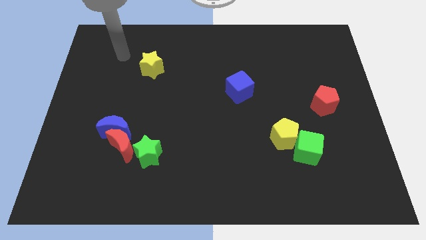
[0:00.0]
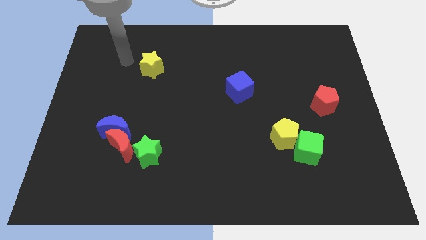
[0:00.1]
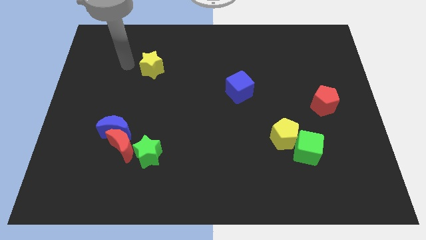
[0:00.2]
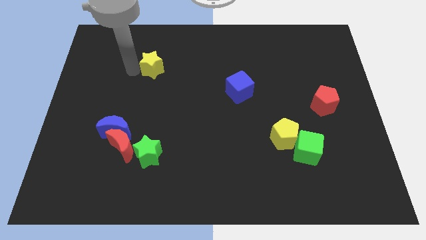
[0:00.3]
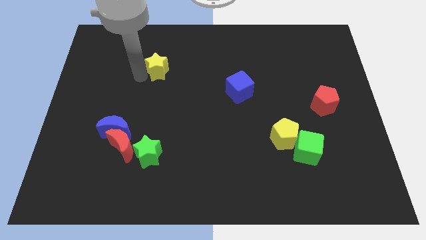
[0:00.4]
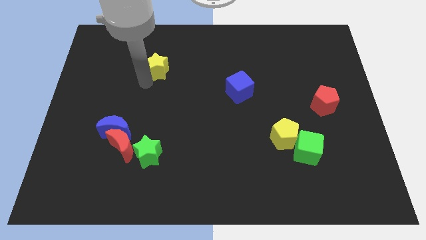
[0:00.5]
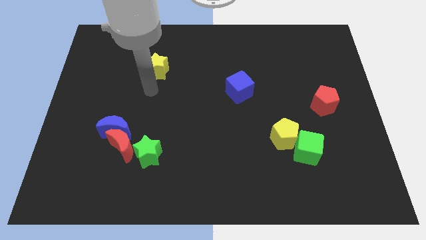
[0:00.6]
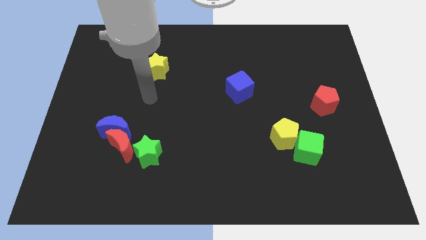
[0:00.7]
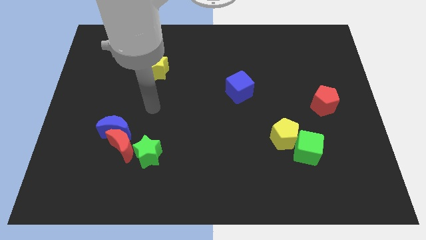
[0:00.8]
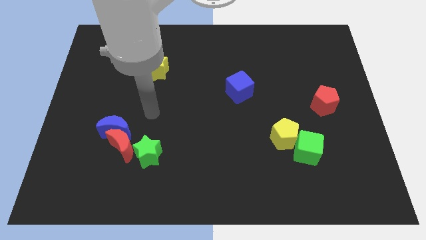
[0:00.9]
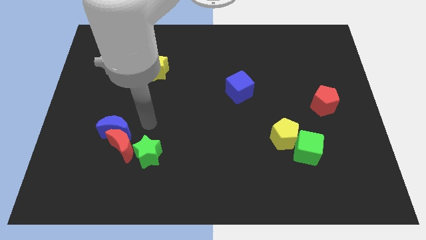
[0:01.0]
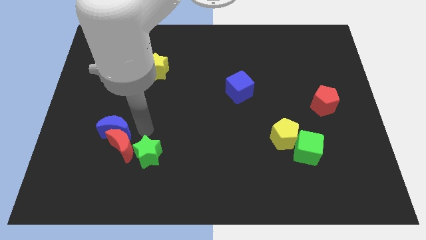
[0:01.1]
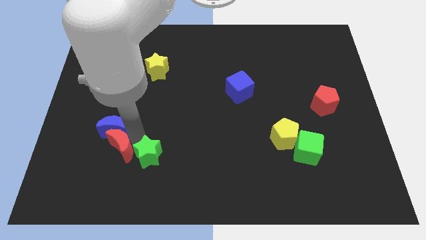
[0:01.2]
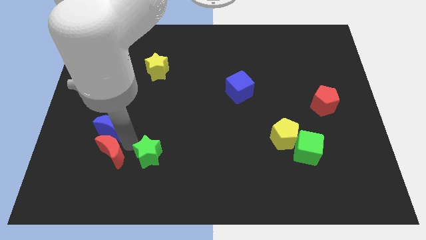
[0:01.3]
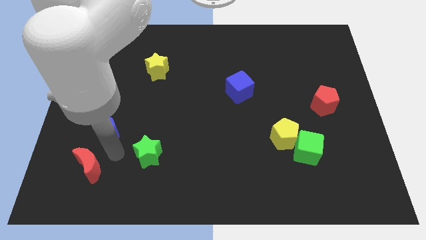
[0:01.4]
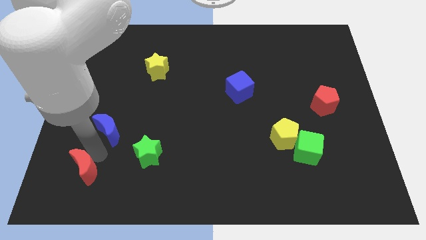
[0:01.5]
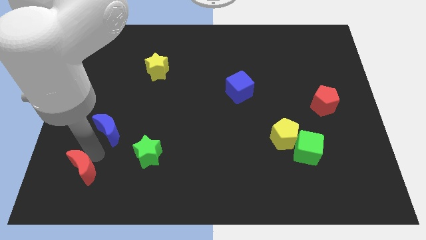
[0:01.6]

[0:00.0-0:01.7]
separate the blue moon from the red moon

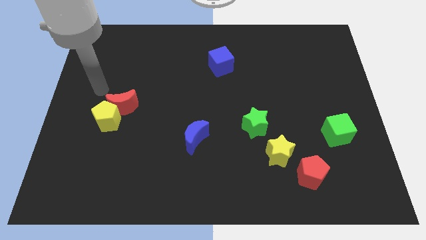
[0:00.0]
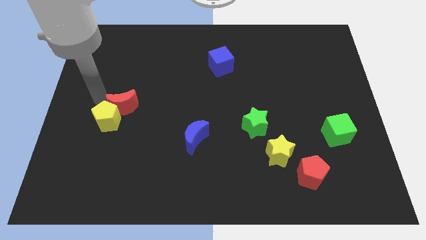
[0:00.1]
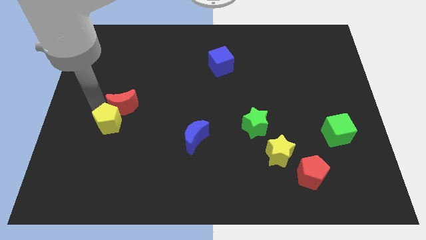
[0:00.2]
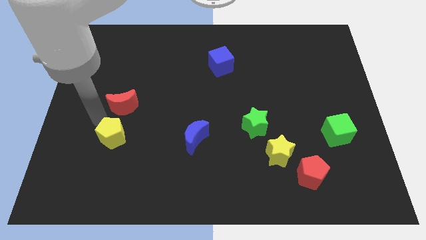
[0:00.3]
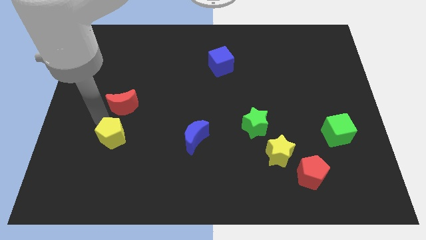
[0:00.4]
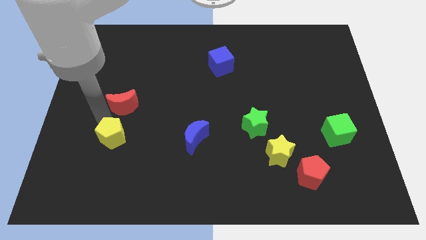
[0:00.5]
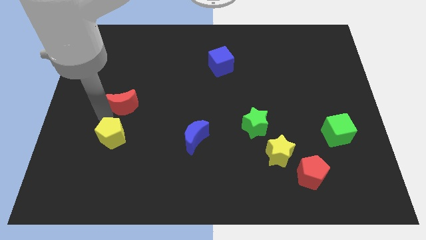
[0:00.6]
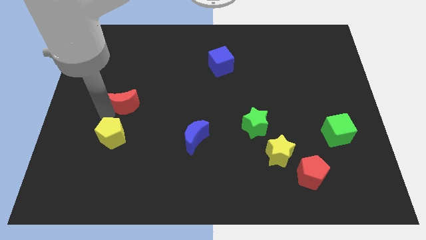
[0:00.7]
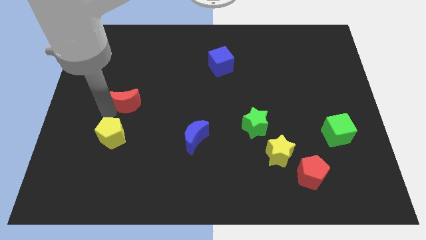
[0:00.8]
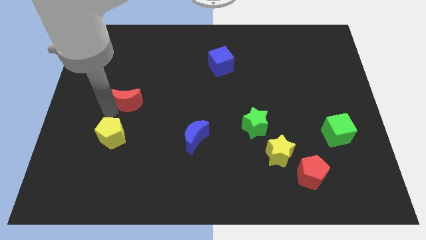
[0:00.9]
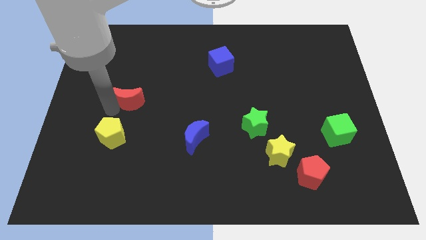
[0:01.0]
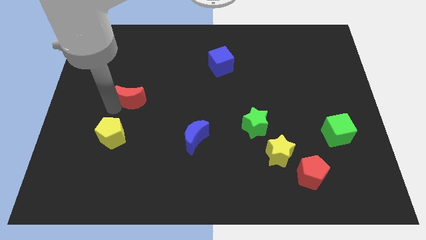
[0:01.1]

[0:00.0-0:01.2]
move the red moon away from the yellow pentagon

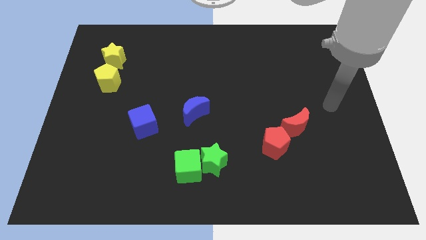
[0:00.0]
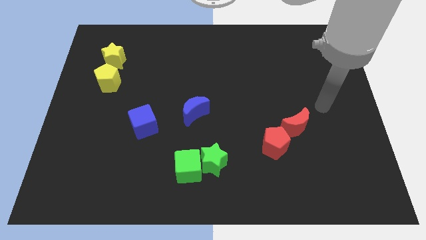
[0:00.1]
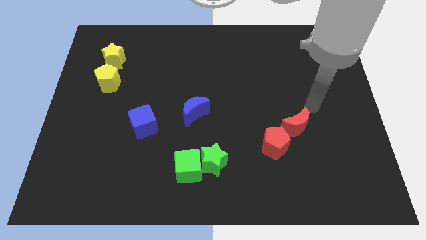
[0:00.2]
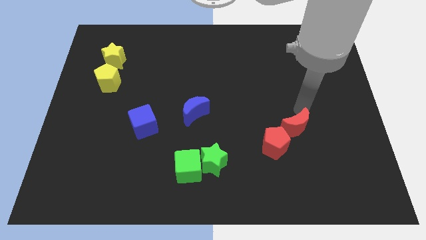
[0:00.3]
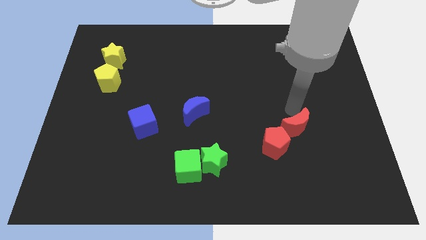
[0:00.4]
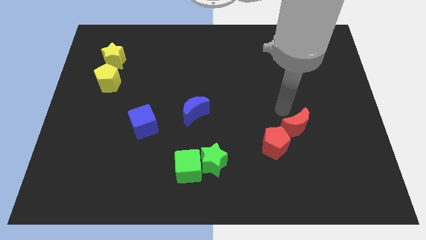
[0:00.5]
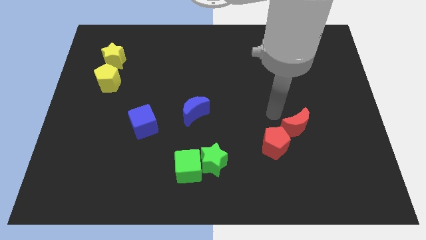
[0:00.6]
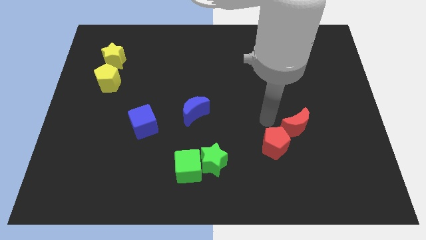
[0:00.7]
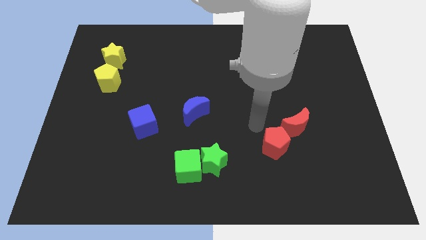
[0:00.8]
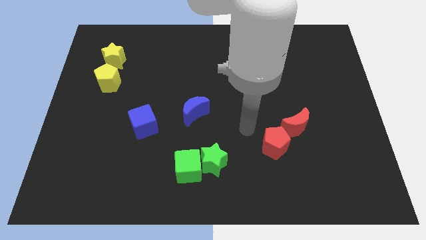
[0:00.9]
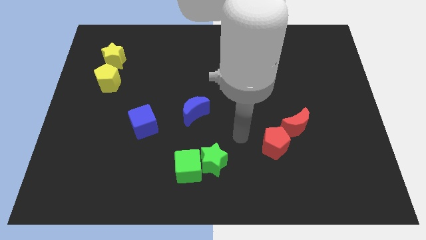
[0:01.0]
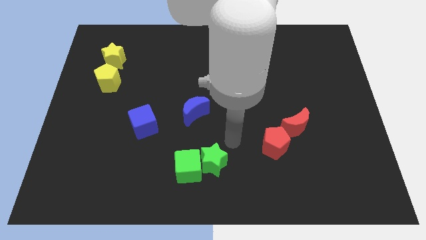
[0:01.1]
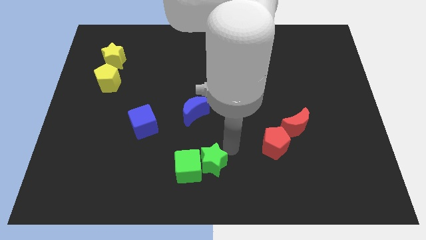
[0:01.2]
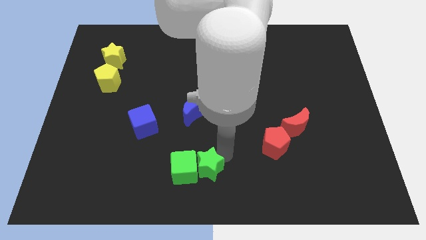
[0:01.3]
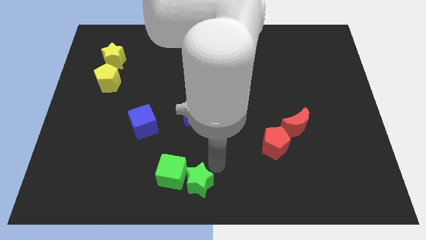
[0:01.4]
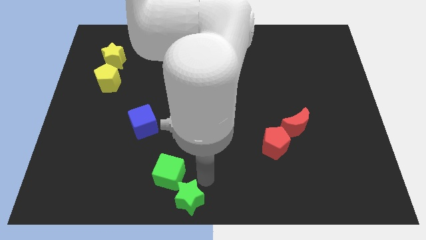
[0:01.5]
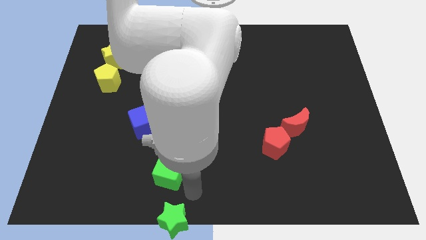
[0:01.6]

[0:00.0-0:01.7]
move the green cube away from the green star

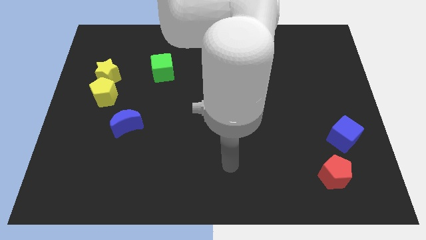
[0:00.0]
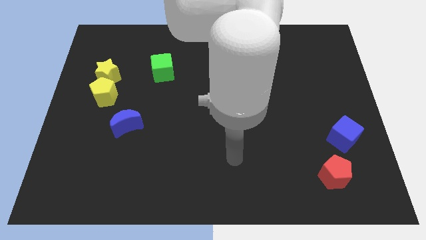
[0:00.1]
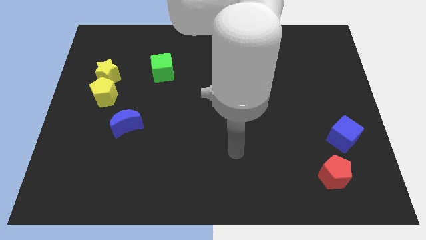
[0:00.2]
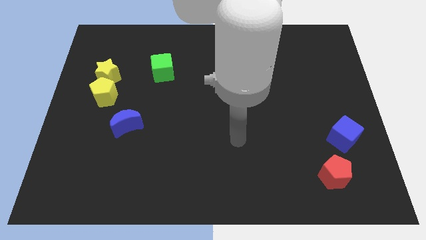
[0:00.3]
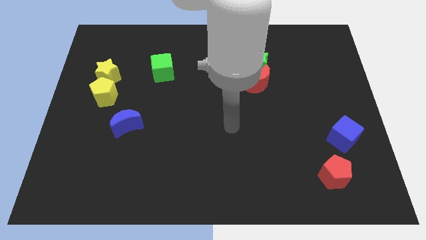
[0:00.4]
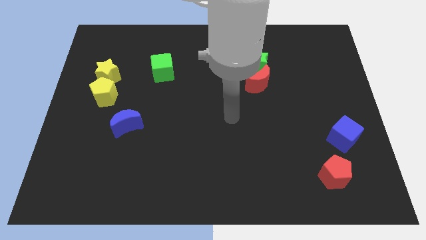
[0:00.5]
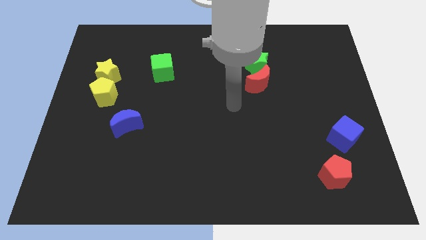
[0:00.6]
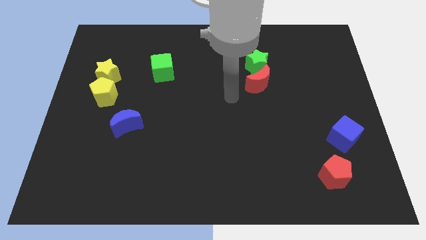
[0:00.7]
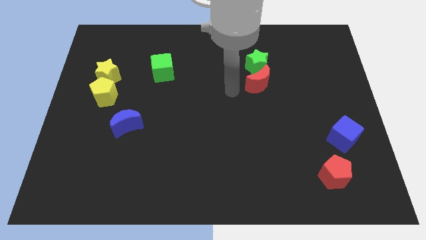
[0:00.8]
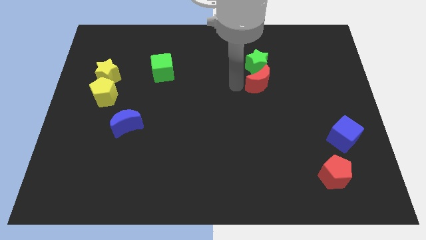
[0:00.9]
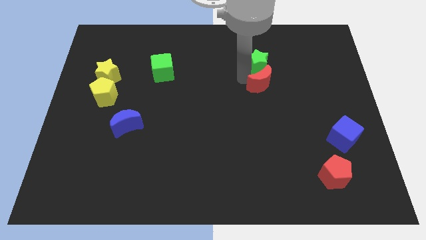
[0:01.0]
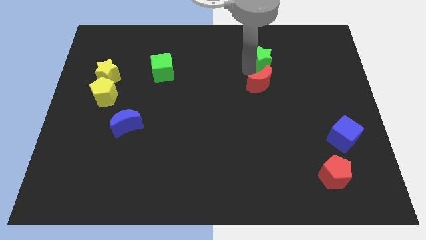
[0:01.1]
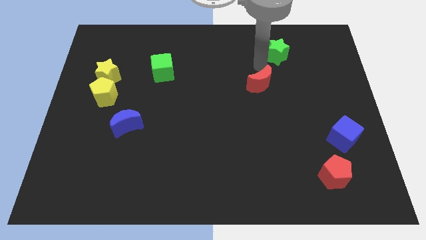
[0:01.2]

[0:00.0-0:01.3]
move the red moon away from the green star

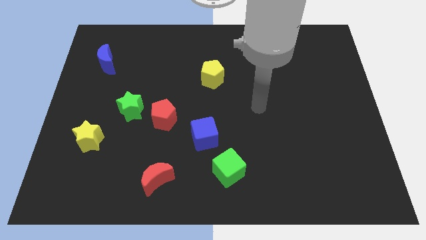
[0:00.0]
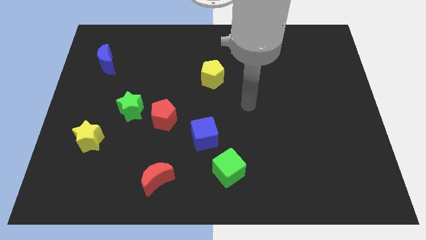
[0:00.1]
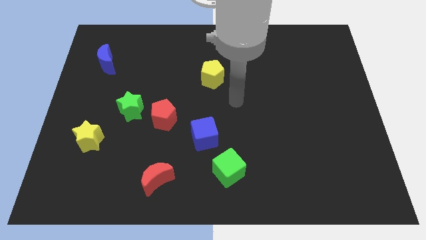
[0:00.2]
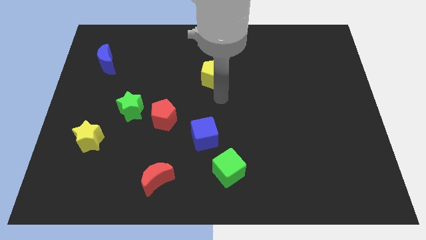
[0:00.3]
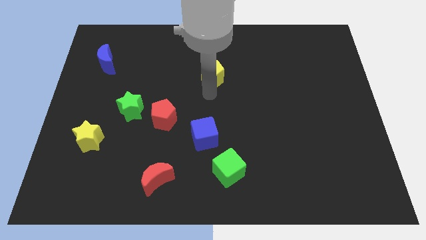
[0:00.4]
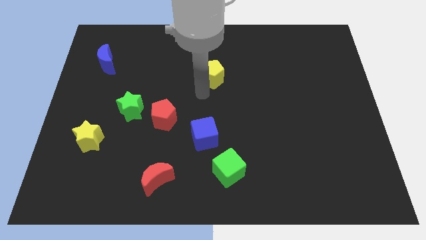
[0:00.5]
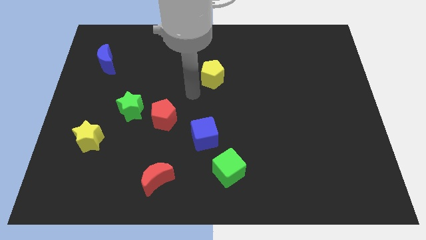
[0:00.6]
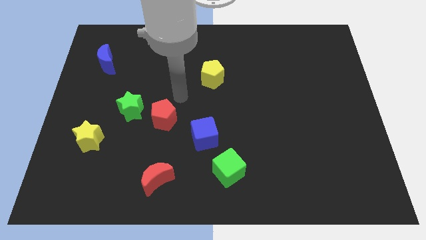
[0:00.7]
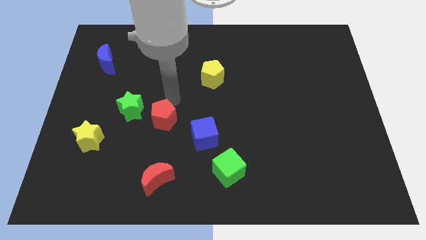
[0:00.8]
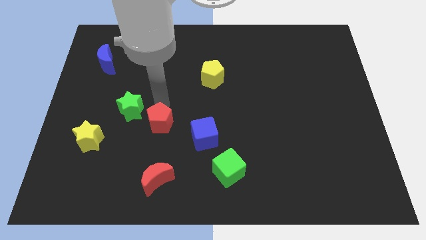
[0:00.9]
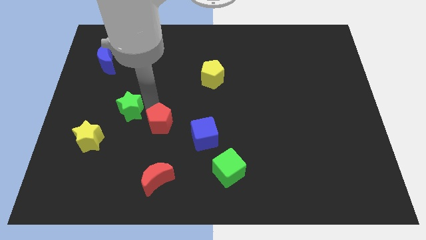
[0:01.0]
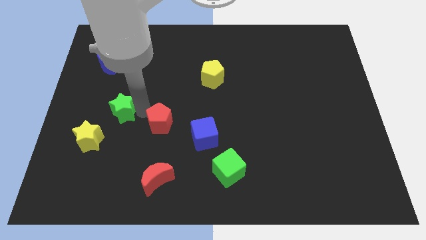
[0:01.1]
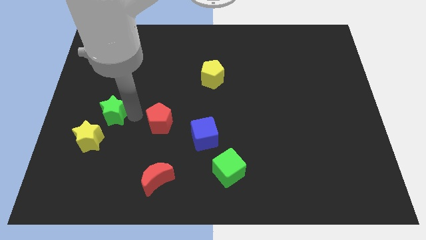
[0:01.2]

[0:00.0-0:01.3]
move the red pentagon away from the green star

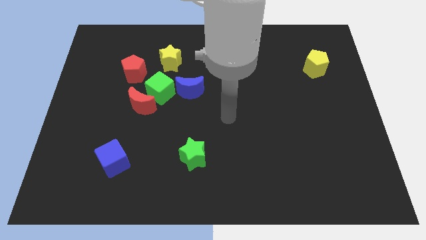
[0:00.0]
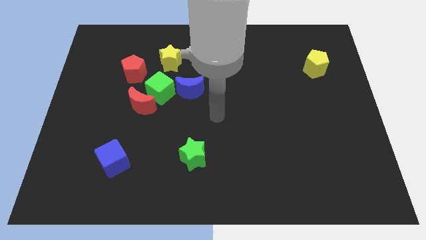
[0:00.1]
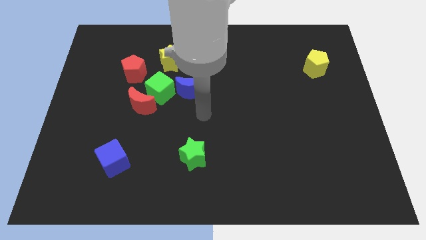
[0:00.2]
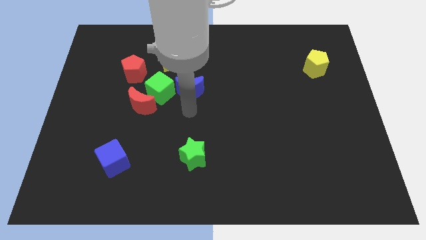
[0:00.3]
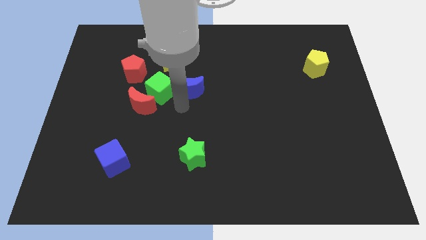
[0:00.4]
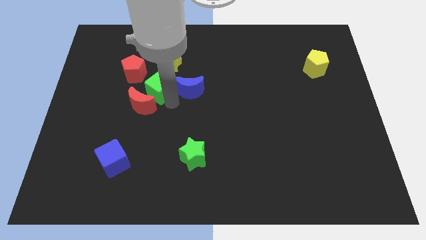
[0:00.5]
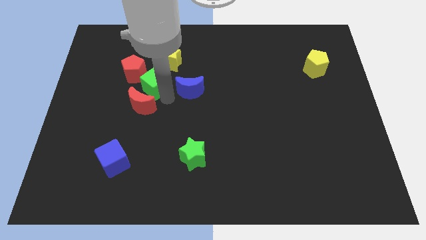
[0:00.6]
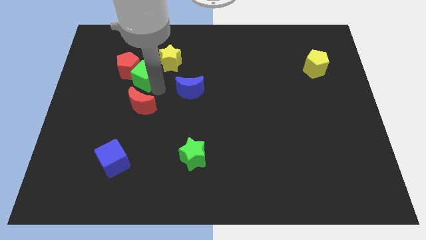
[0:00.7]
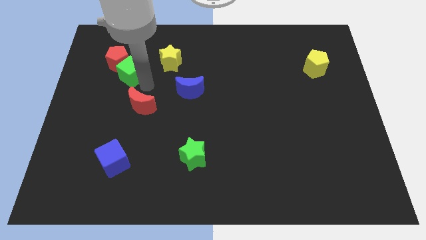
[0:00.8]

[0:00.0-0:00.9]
move the red moon away from the green cube

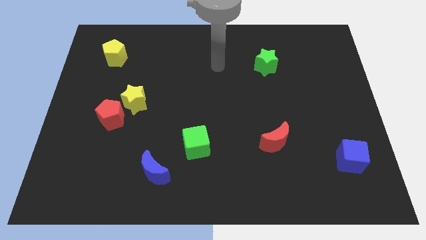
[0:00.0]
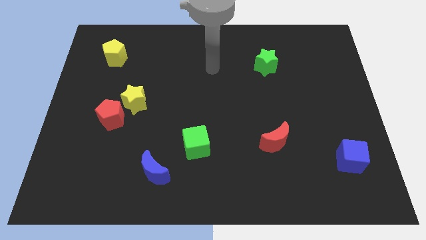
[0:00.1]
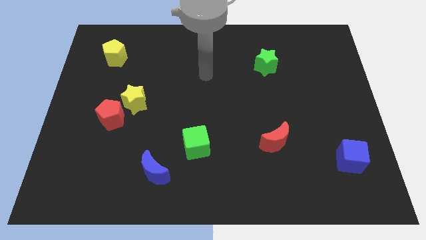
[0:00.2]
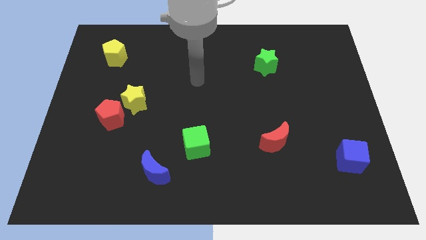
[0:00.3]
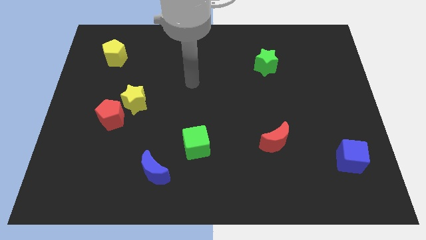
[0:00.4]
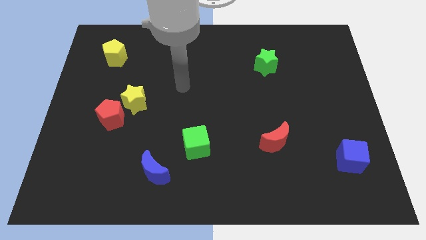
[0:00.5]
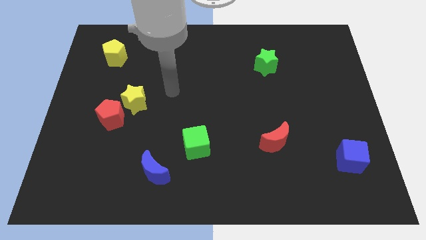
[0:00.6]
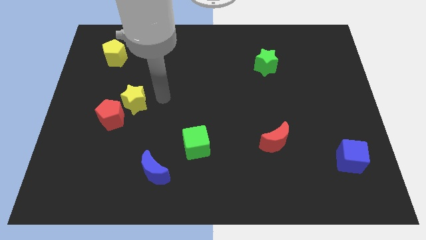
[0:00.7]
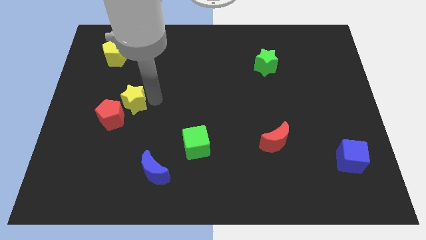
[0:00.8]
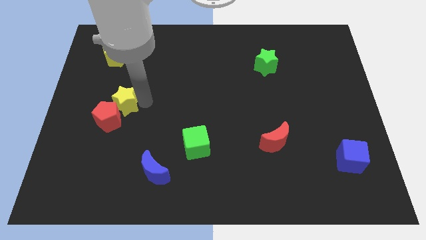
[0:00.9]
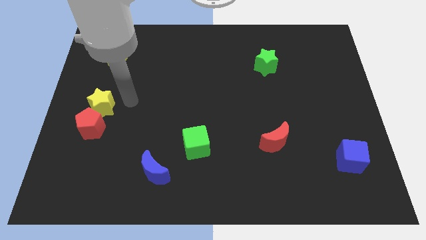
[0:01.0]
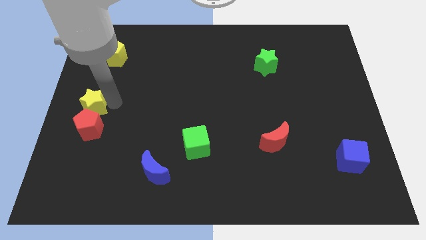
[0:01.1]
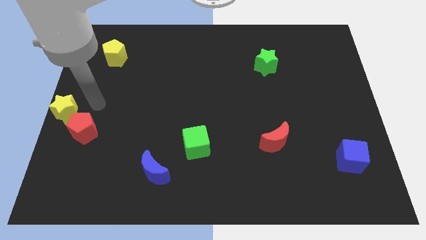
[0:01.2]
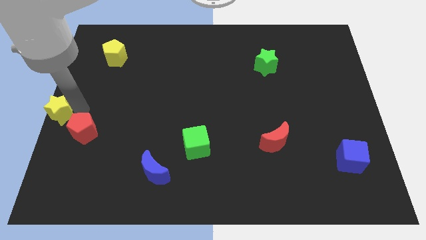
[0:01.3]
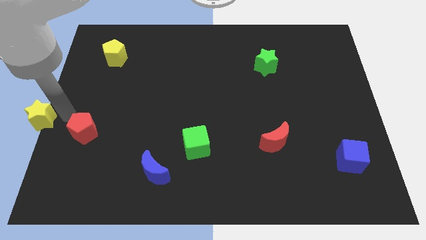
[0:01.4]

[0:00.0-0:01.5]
pull the red pentagon apart from the yellow star
